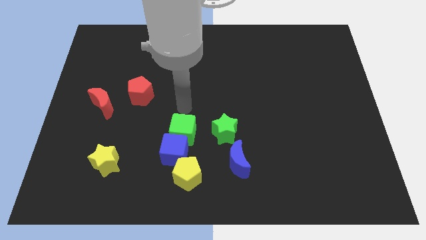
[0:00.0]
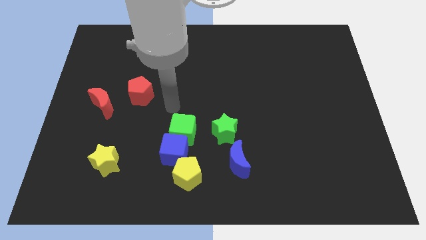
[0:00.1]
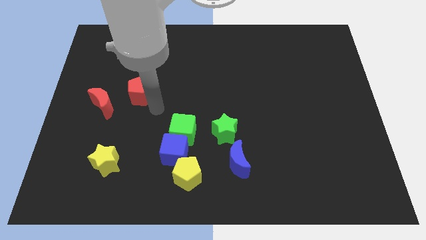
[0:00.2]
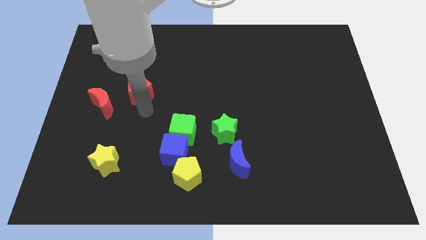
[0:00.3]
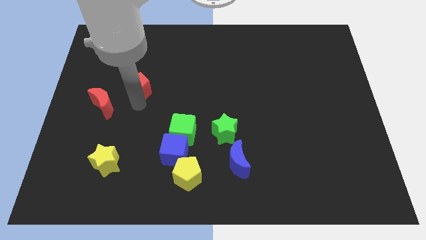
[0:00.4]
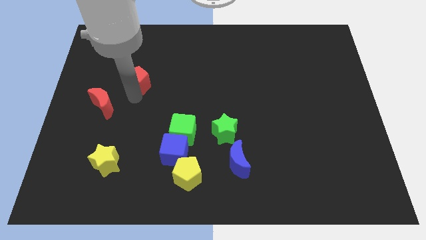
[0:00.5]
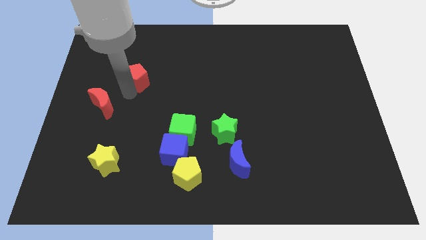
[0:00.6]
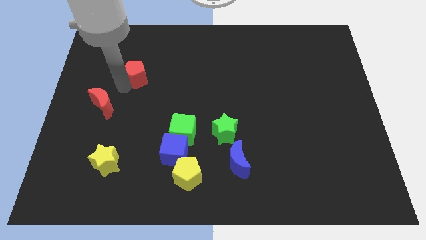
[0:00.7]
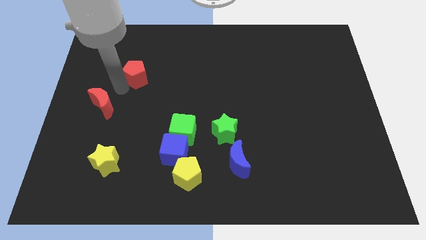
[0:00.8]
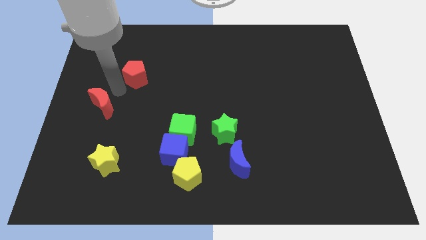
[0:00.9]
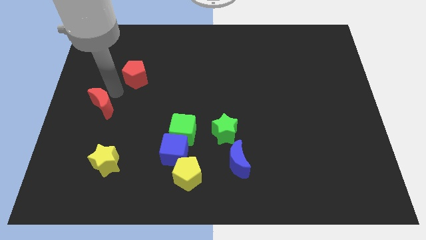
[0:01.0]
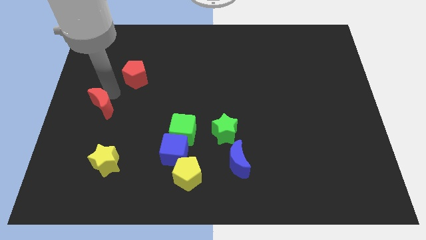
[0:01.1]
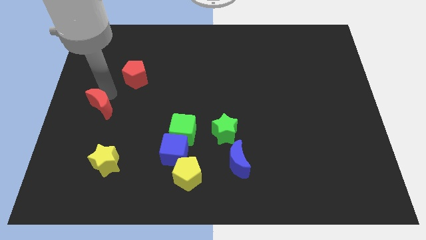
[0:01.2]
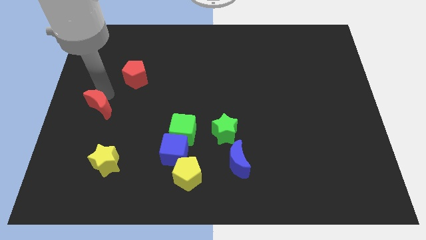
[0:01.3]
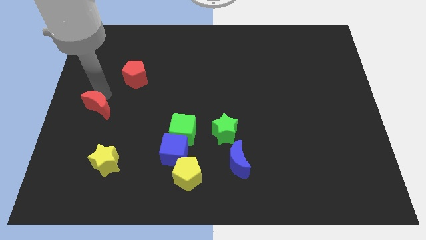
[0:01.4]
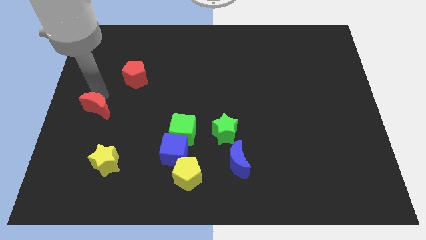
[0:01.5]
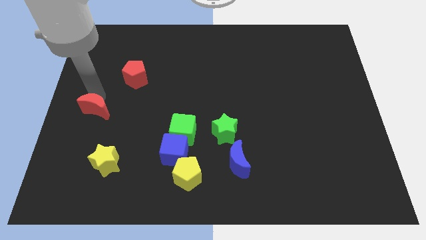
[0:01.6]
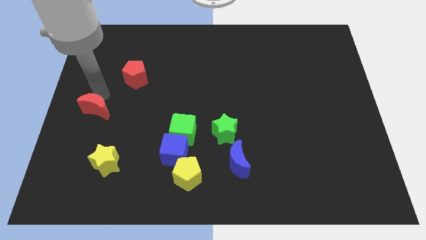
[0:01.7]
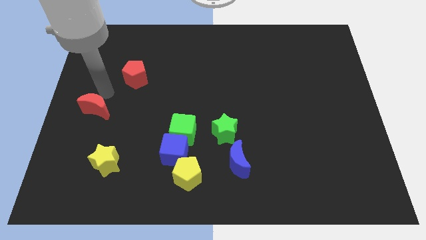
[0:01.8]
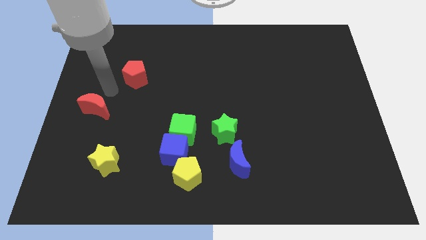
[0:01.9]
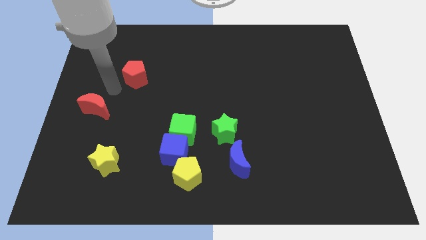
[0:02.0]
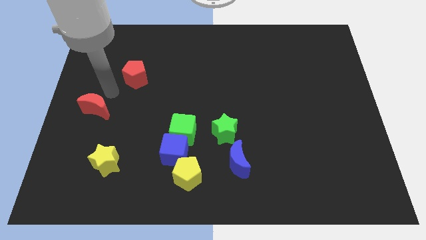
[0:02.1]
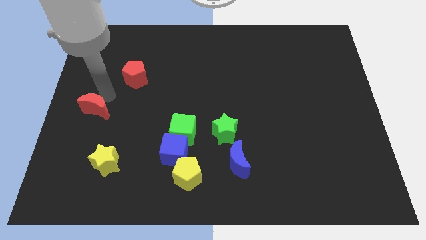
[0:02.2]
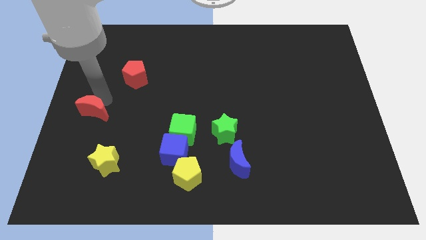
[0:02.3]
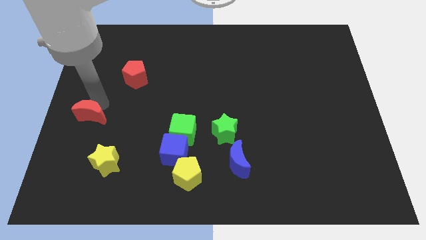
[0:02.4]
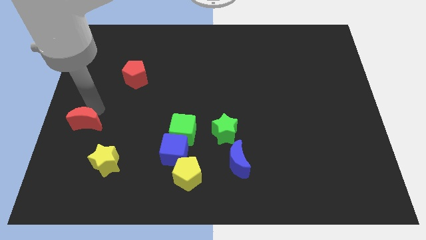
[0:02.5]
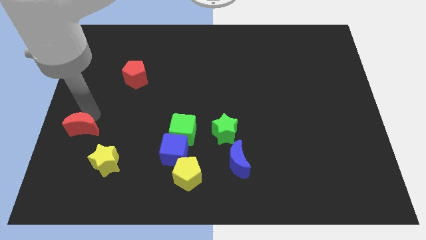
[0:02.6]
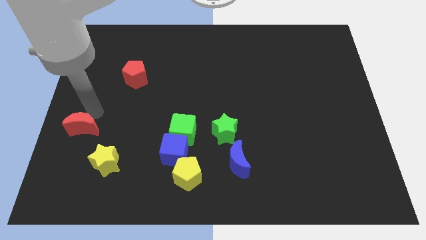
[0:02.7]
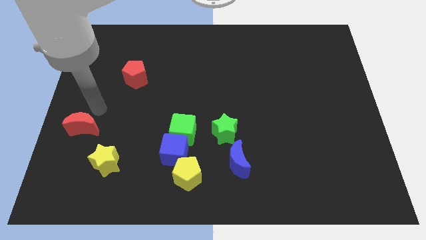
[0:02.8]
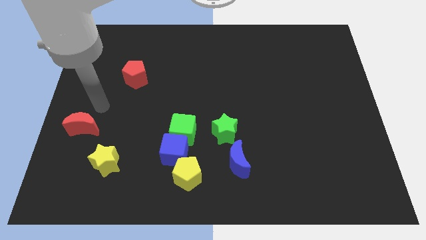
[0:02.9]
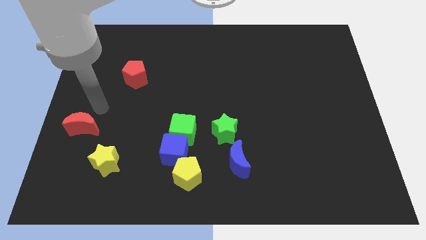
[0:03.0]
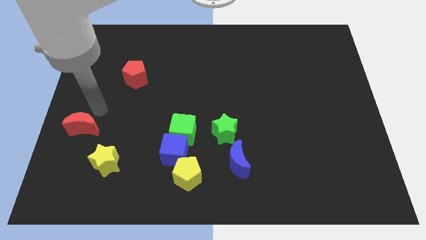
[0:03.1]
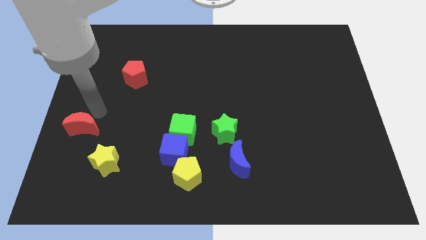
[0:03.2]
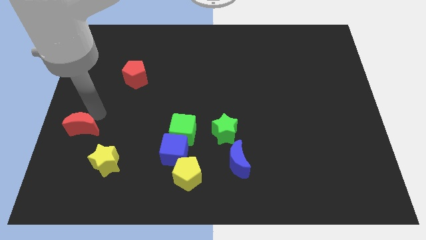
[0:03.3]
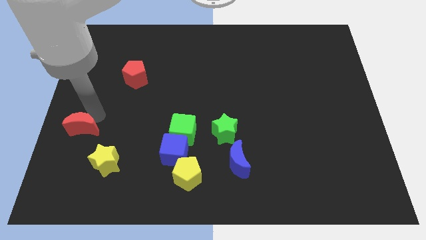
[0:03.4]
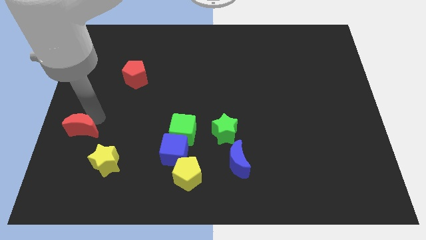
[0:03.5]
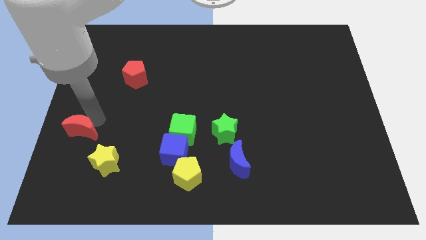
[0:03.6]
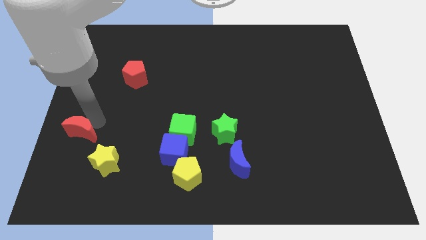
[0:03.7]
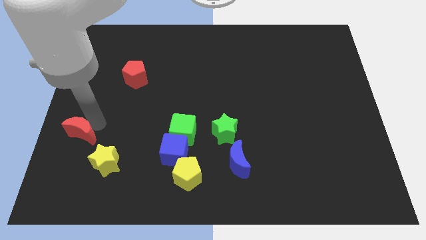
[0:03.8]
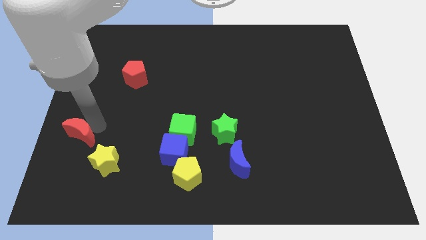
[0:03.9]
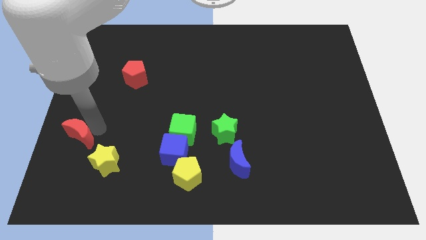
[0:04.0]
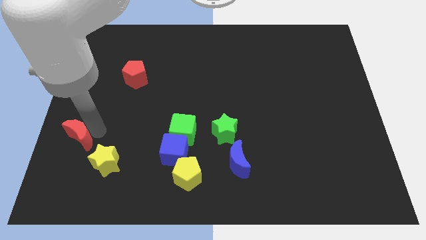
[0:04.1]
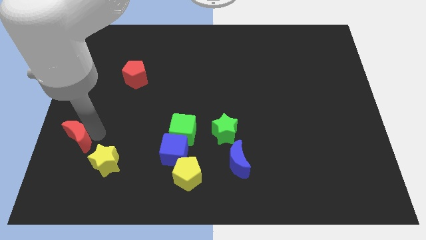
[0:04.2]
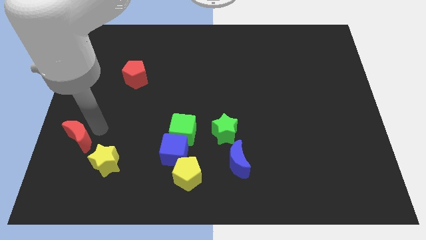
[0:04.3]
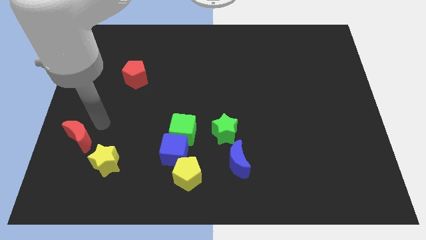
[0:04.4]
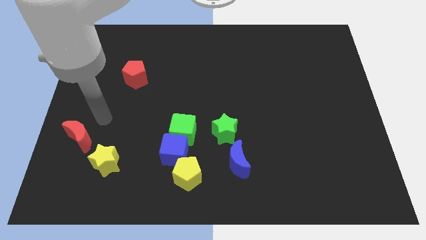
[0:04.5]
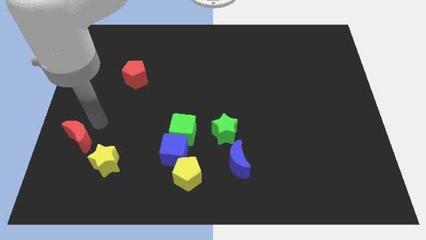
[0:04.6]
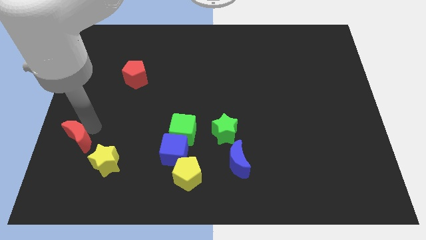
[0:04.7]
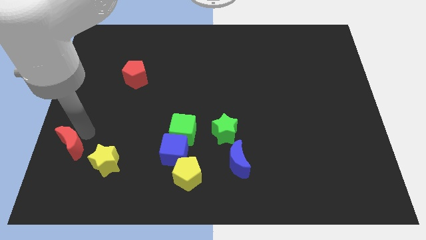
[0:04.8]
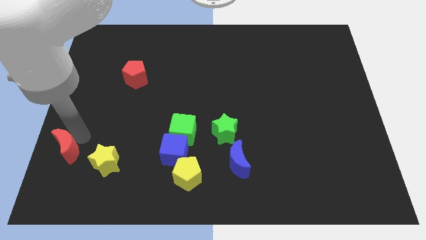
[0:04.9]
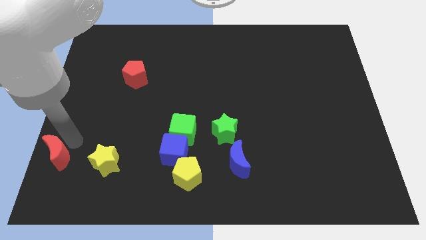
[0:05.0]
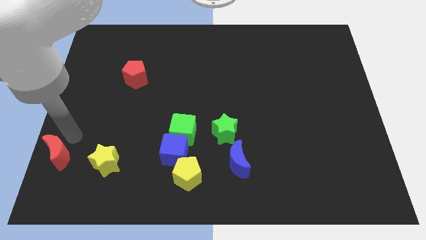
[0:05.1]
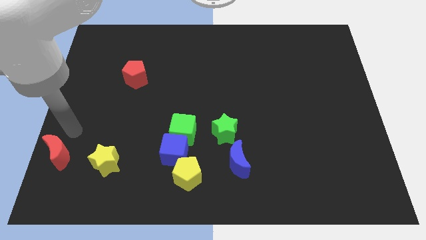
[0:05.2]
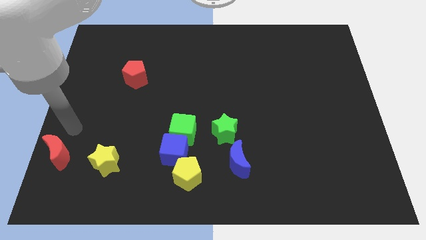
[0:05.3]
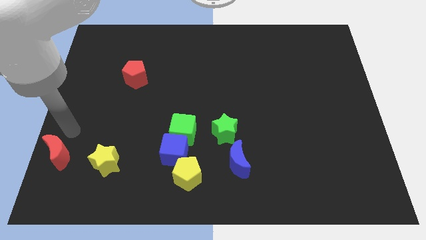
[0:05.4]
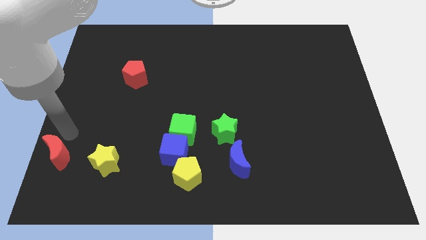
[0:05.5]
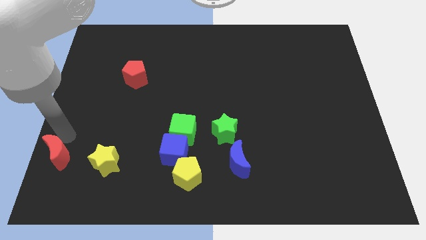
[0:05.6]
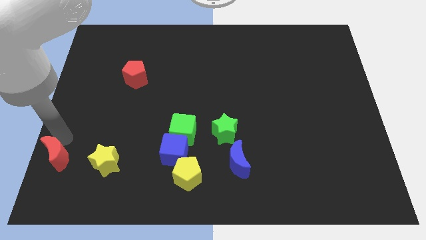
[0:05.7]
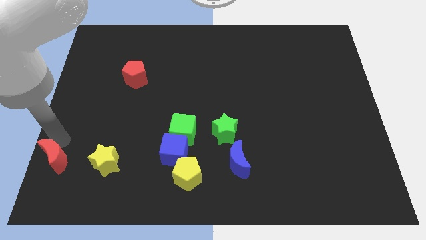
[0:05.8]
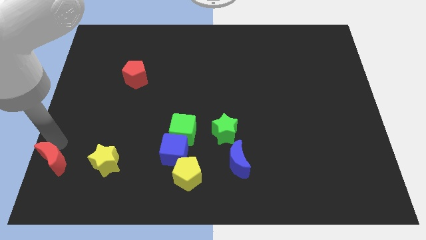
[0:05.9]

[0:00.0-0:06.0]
push the red moon to the bottom left corner

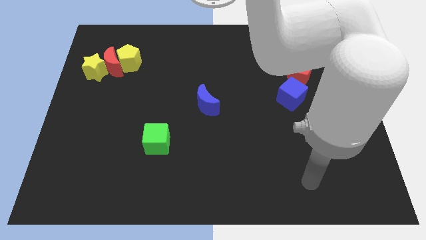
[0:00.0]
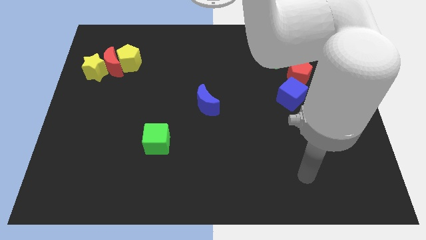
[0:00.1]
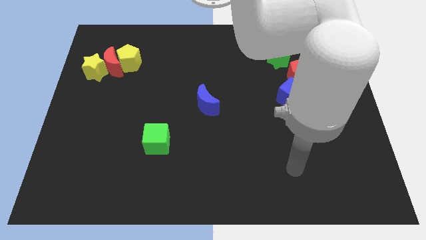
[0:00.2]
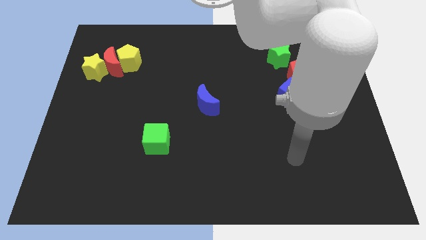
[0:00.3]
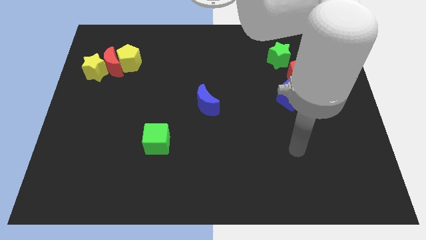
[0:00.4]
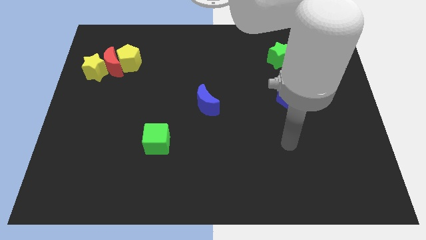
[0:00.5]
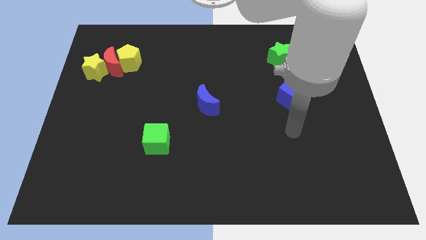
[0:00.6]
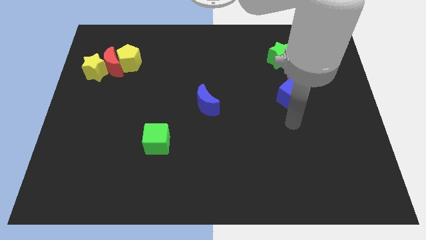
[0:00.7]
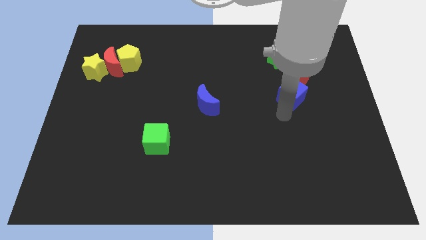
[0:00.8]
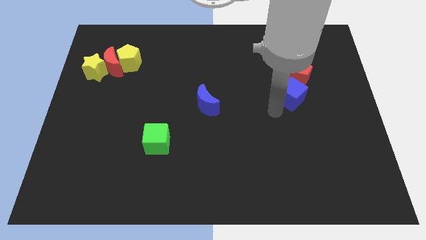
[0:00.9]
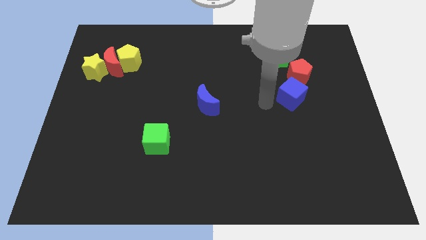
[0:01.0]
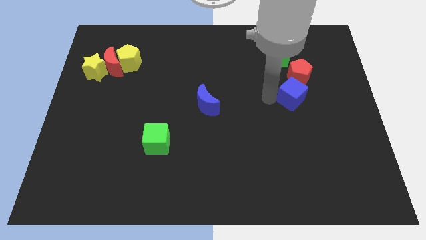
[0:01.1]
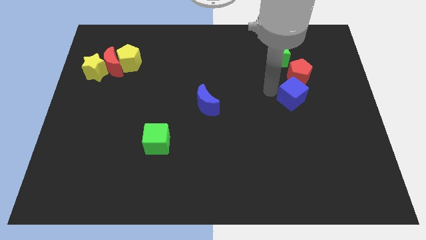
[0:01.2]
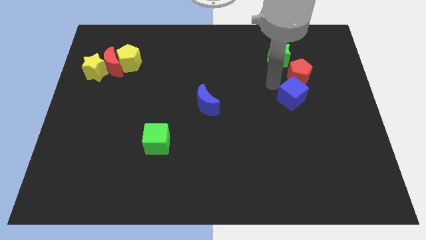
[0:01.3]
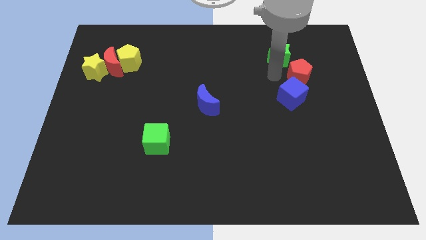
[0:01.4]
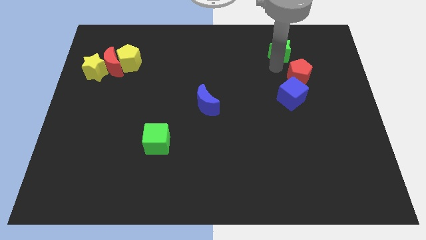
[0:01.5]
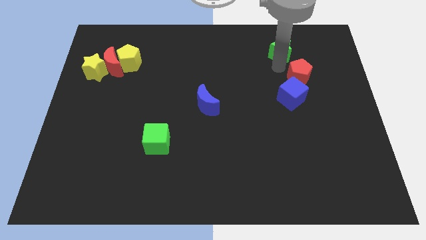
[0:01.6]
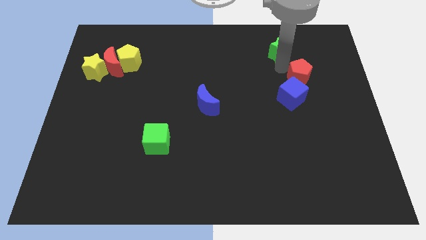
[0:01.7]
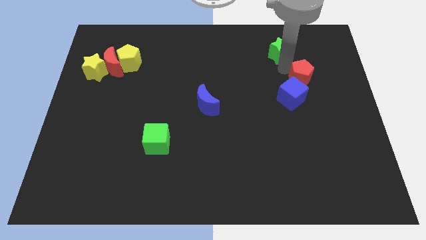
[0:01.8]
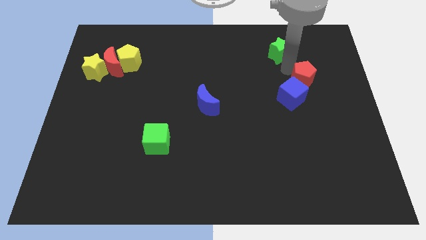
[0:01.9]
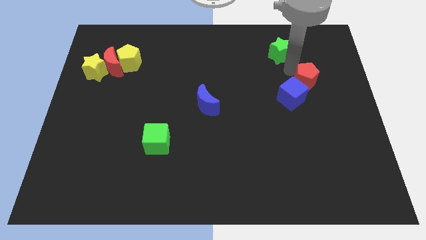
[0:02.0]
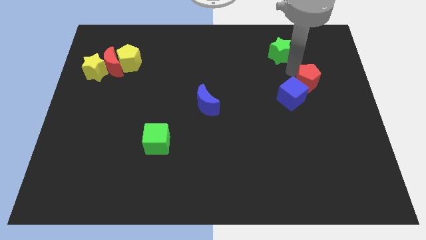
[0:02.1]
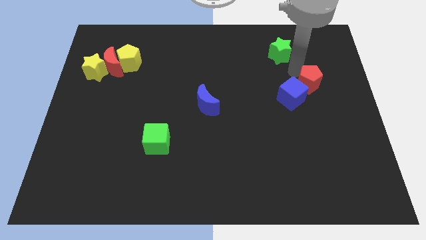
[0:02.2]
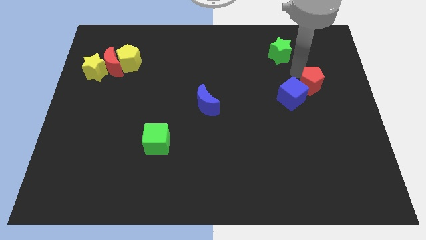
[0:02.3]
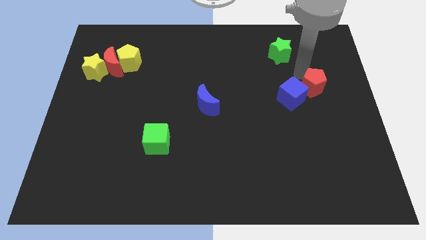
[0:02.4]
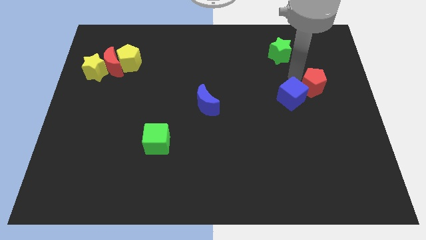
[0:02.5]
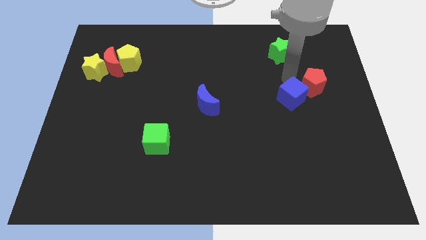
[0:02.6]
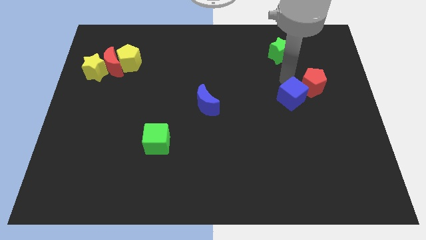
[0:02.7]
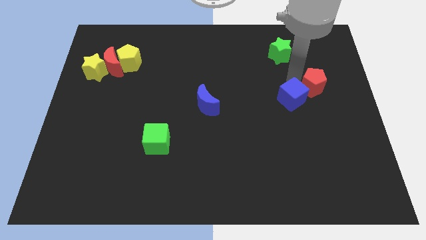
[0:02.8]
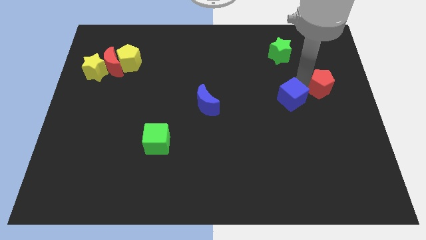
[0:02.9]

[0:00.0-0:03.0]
put the red pentagon to the center right
